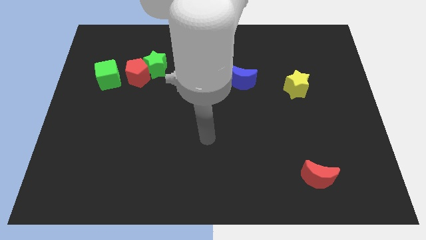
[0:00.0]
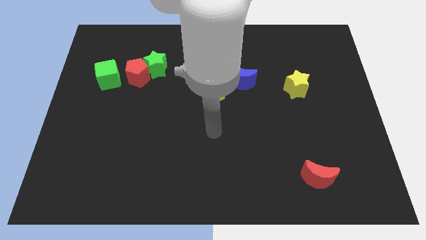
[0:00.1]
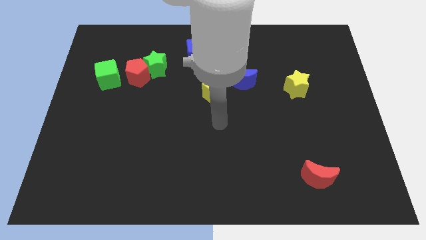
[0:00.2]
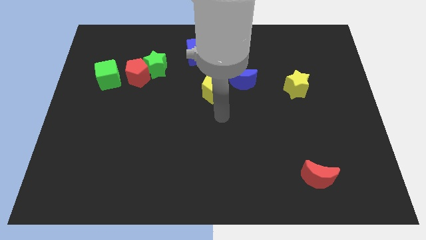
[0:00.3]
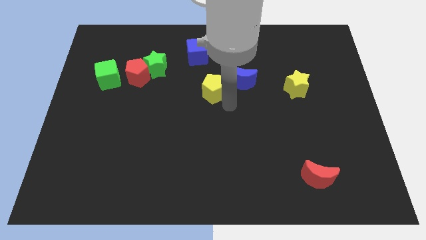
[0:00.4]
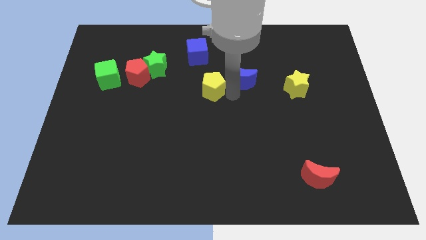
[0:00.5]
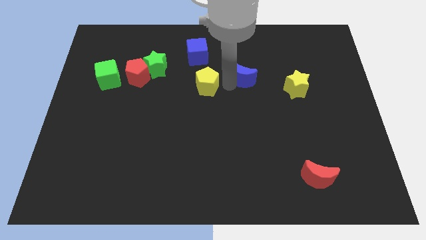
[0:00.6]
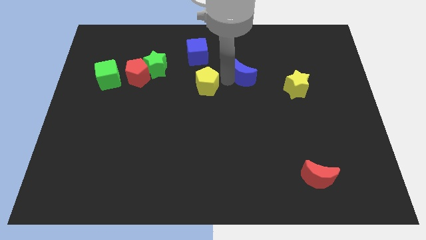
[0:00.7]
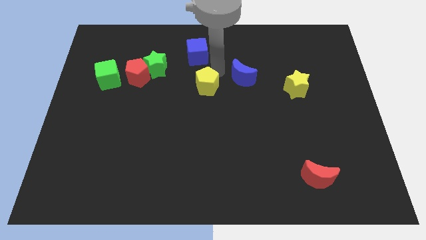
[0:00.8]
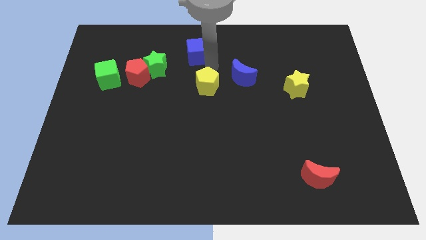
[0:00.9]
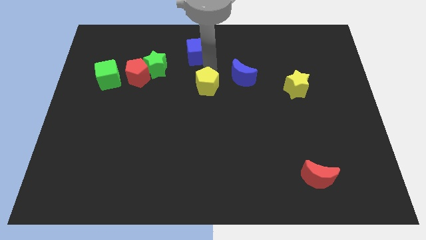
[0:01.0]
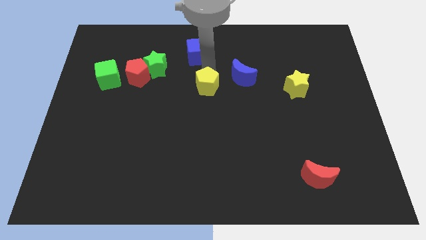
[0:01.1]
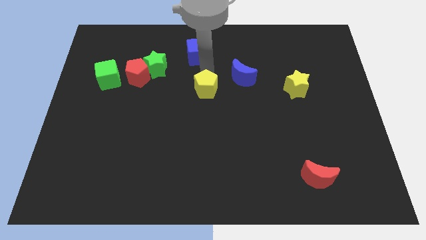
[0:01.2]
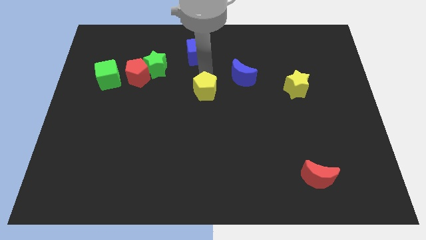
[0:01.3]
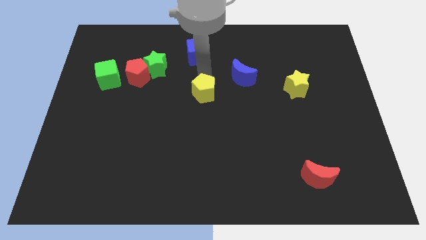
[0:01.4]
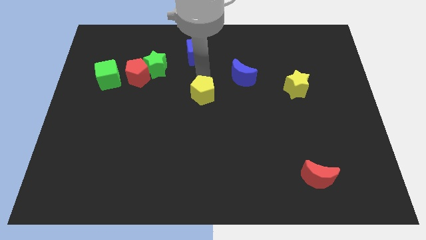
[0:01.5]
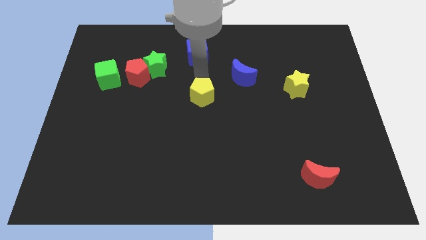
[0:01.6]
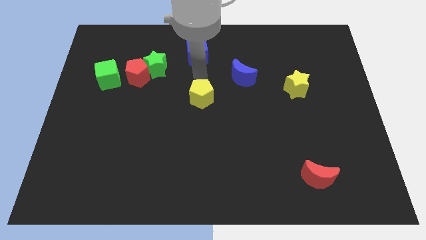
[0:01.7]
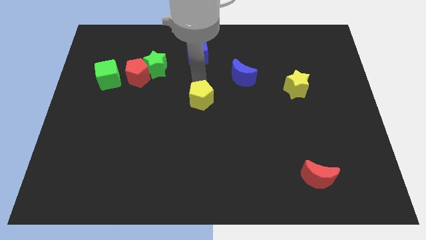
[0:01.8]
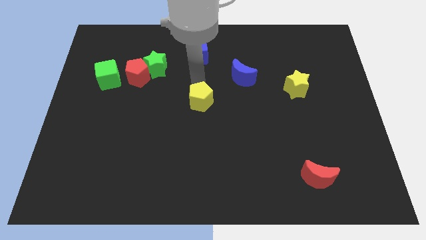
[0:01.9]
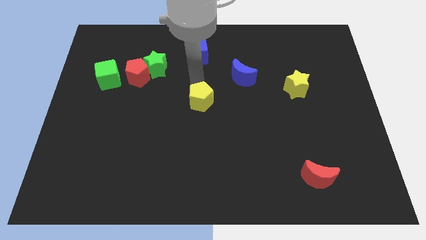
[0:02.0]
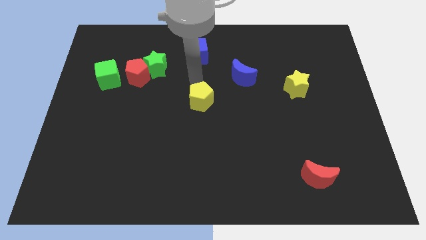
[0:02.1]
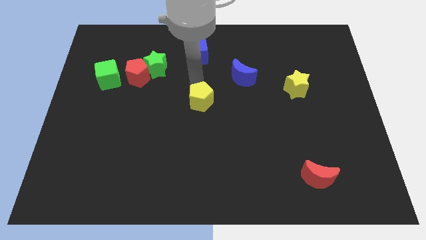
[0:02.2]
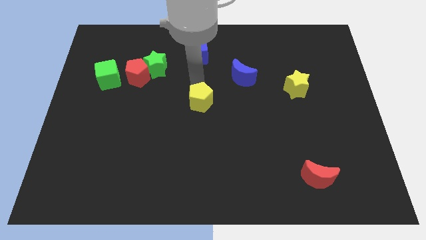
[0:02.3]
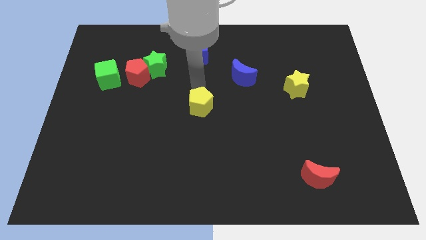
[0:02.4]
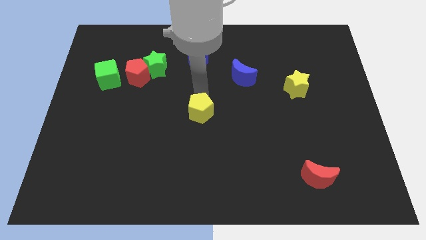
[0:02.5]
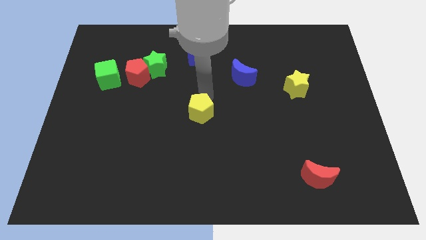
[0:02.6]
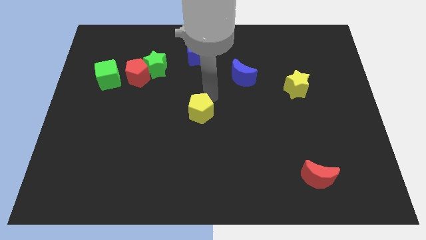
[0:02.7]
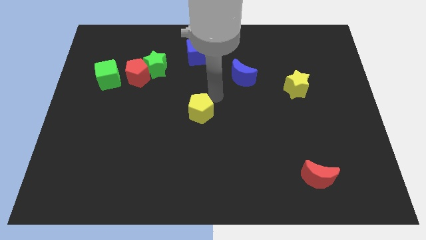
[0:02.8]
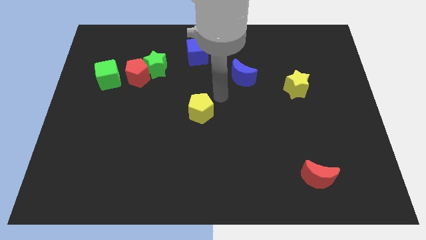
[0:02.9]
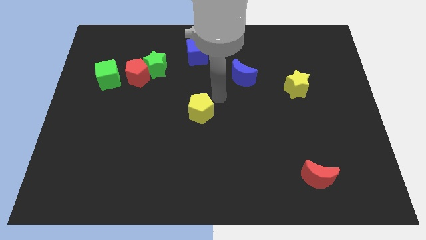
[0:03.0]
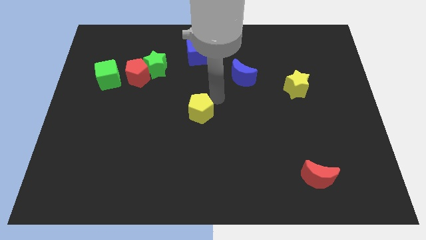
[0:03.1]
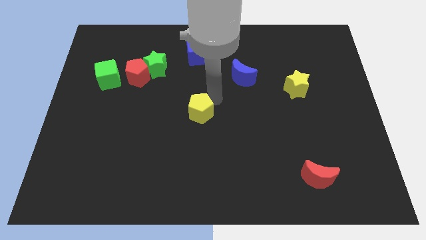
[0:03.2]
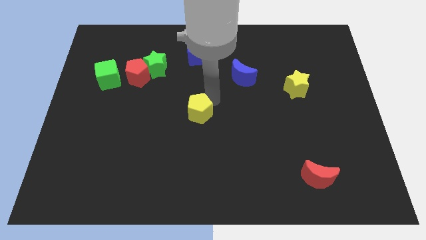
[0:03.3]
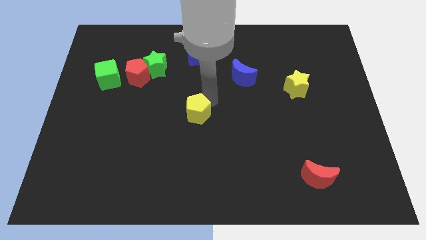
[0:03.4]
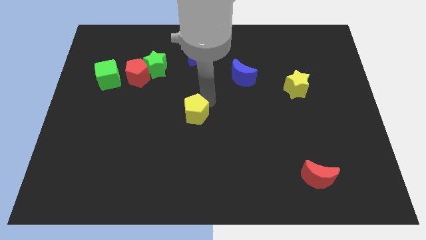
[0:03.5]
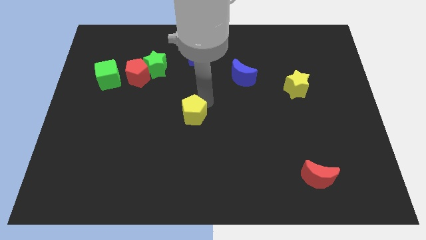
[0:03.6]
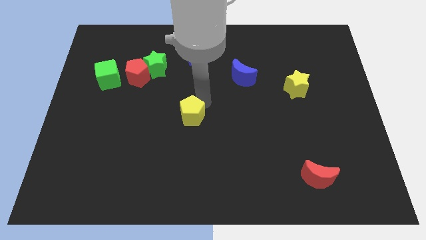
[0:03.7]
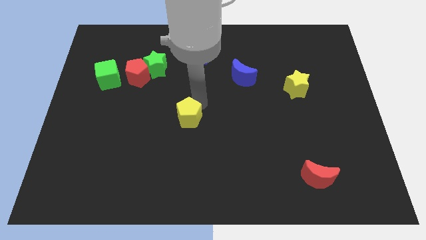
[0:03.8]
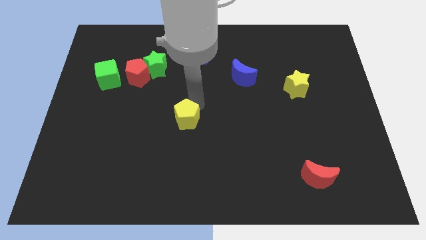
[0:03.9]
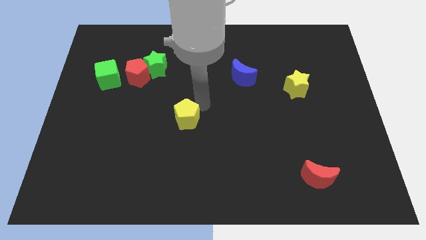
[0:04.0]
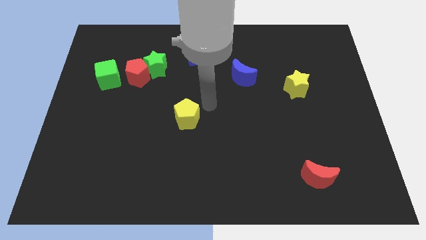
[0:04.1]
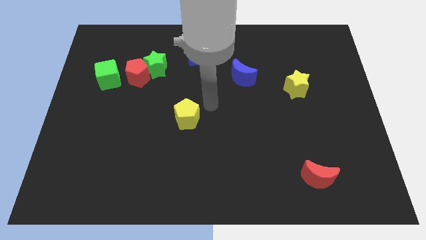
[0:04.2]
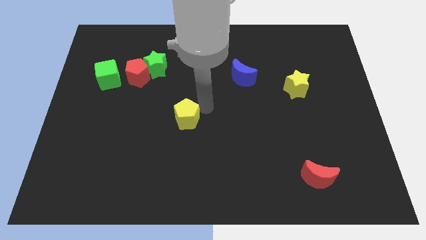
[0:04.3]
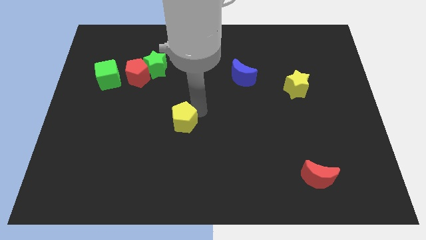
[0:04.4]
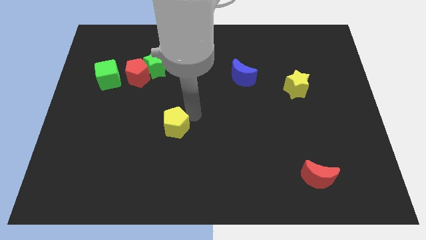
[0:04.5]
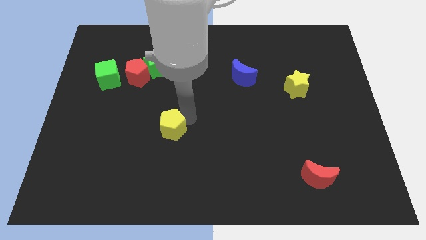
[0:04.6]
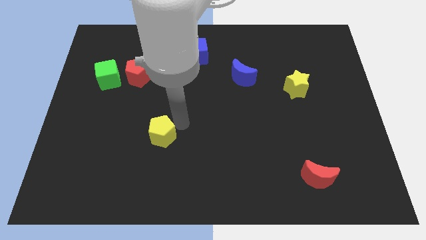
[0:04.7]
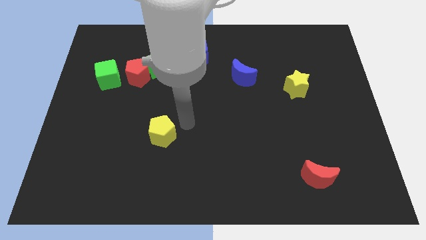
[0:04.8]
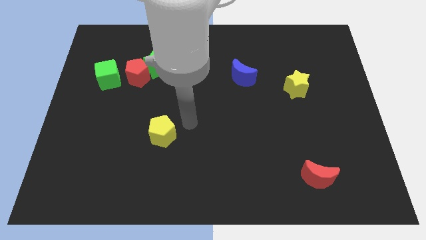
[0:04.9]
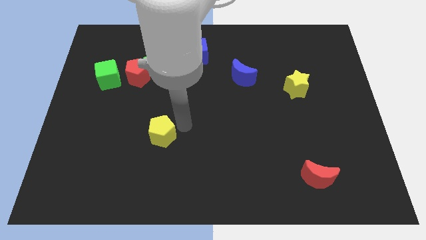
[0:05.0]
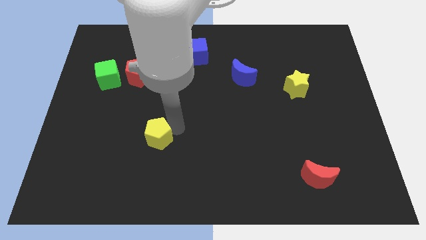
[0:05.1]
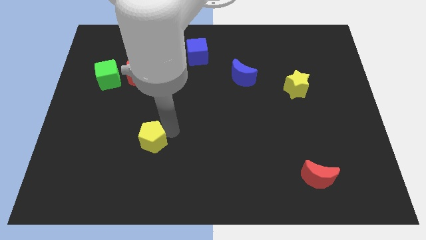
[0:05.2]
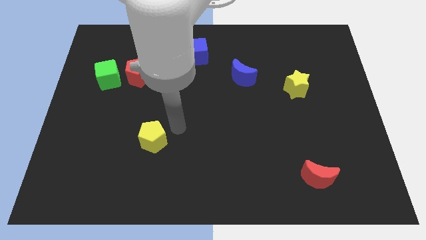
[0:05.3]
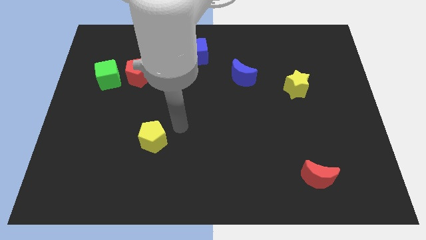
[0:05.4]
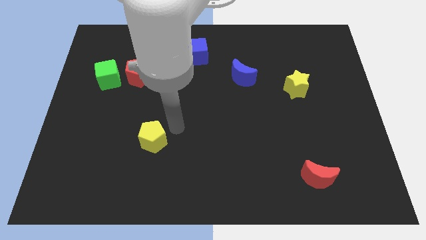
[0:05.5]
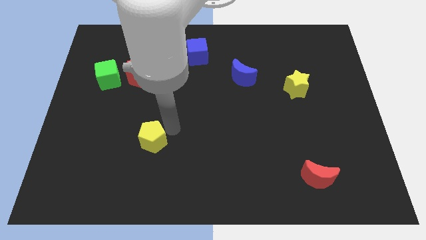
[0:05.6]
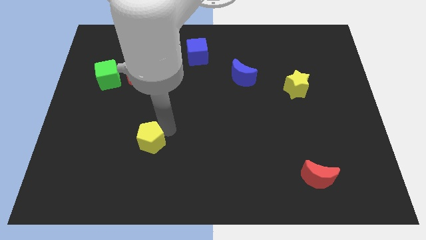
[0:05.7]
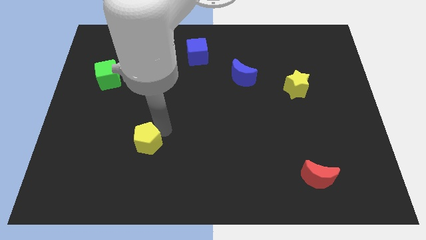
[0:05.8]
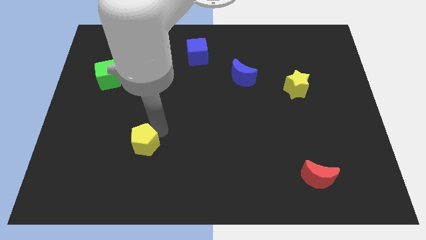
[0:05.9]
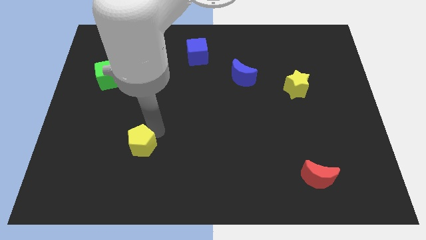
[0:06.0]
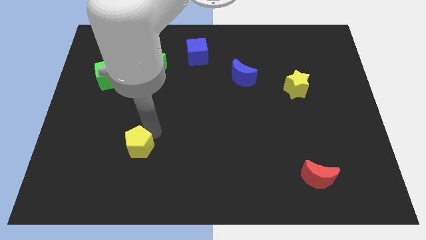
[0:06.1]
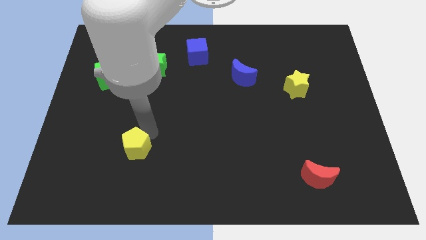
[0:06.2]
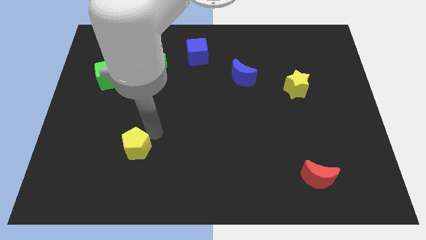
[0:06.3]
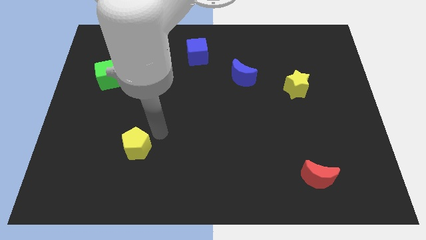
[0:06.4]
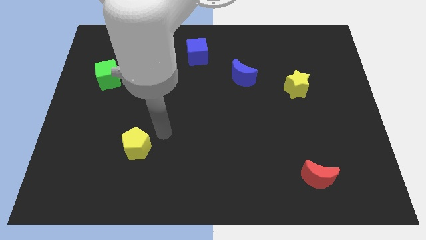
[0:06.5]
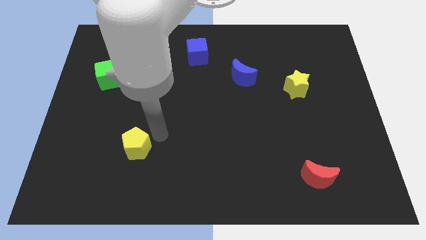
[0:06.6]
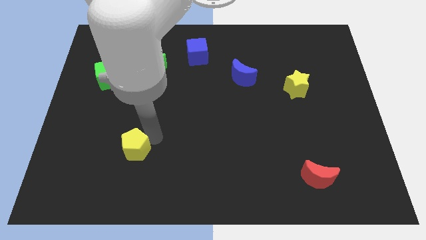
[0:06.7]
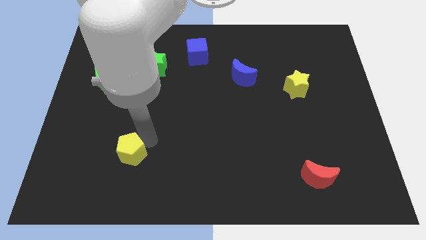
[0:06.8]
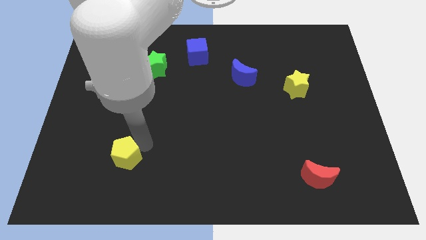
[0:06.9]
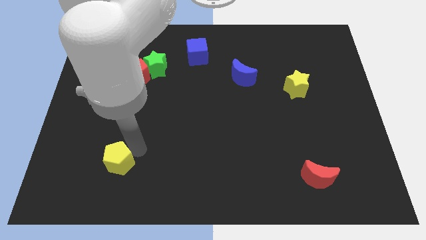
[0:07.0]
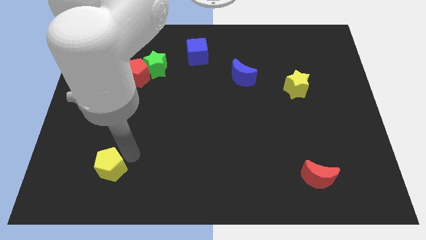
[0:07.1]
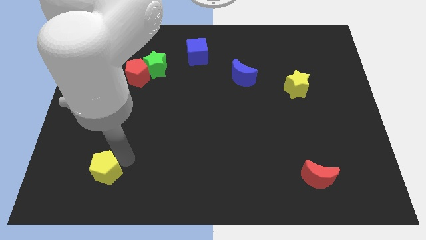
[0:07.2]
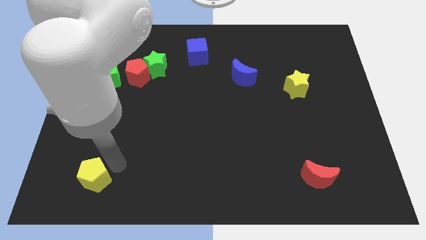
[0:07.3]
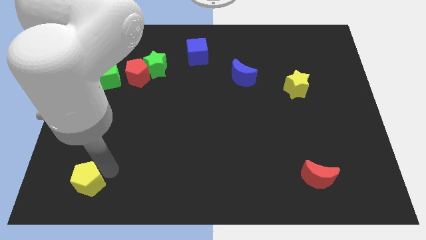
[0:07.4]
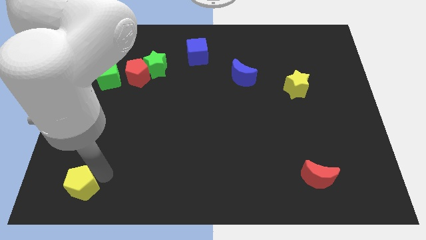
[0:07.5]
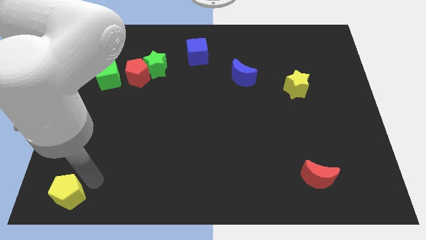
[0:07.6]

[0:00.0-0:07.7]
put the yellow pentagon to the bottom left
